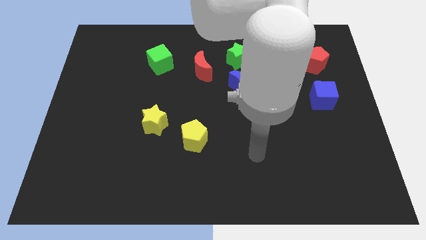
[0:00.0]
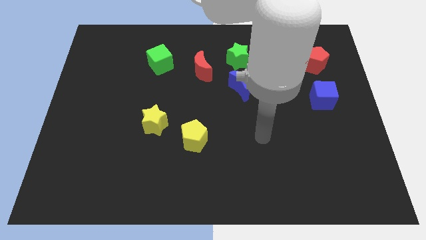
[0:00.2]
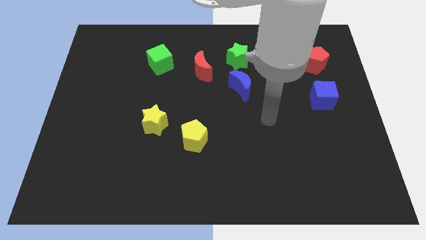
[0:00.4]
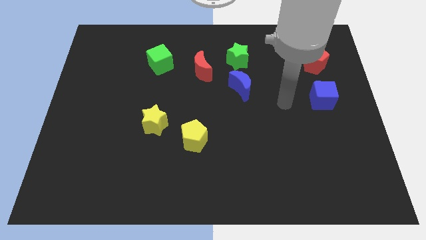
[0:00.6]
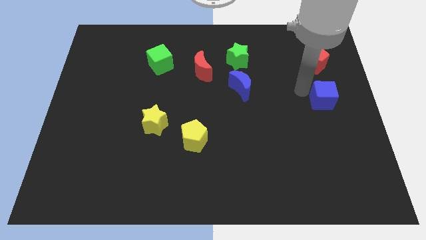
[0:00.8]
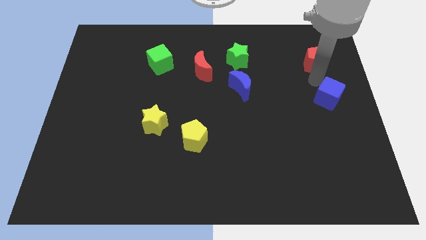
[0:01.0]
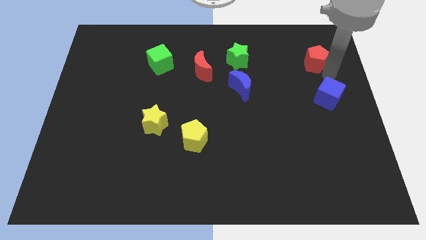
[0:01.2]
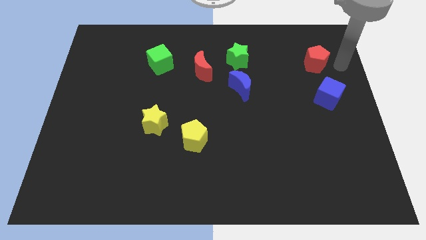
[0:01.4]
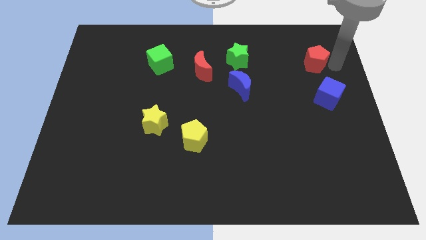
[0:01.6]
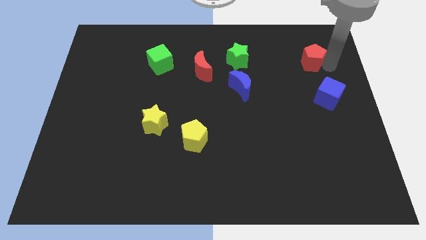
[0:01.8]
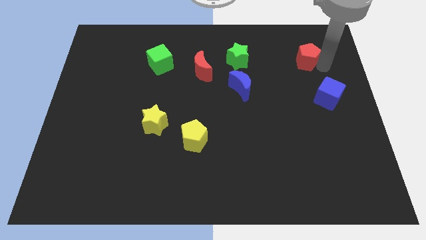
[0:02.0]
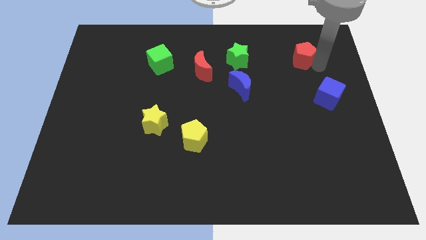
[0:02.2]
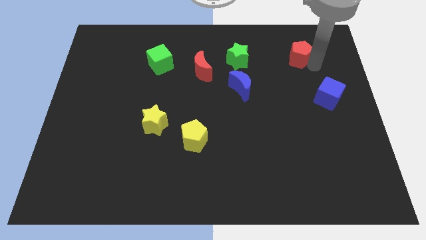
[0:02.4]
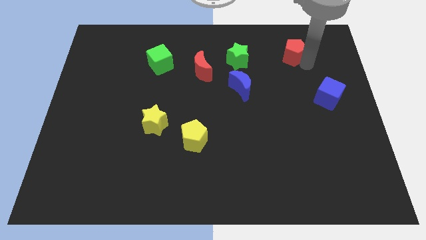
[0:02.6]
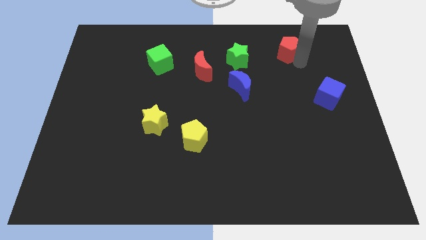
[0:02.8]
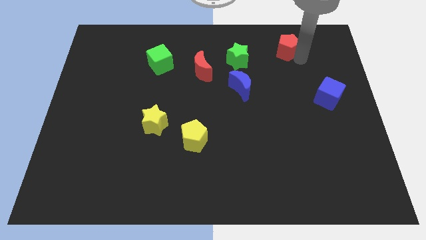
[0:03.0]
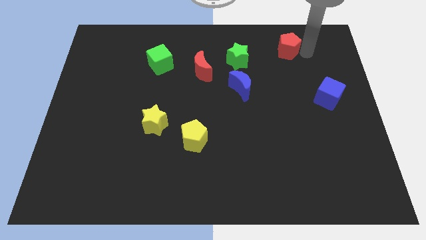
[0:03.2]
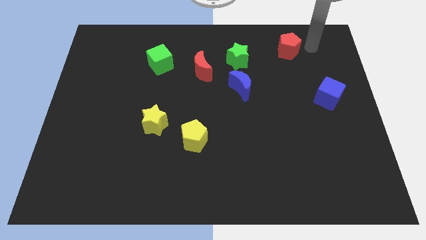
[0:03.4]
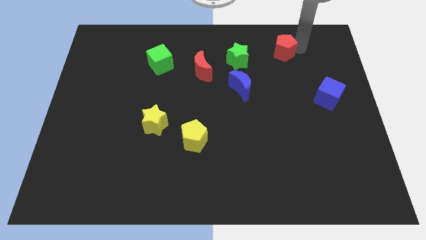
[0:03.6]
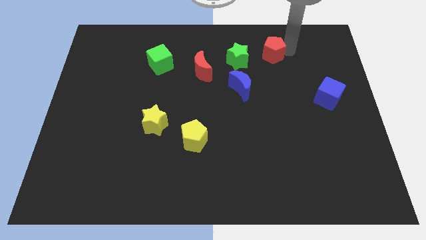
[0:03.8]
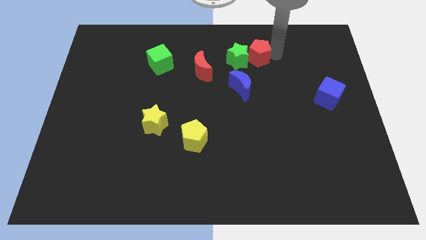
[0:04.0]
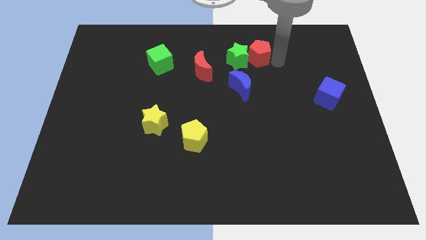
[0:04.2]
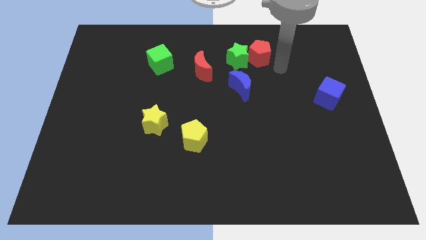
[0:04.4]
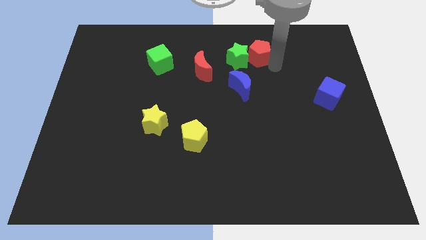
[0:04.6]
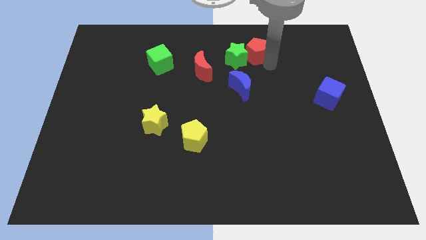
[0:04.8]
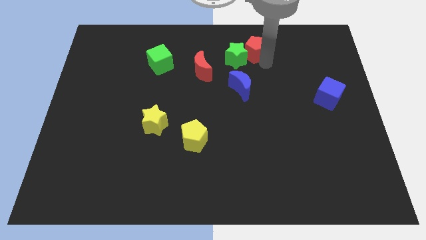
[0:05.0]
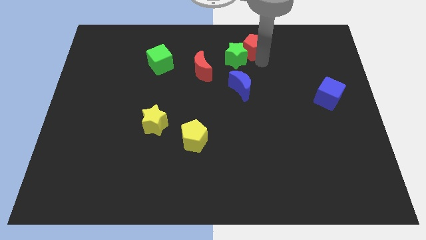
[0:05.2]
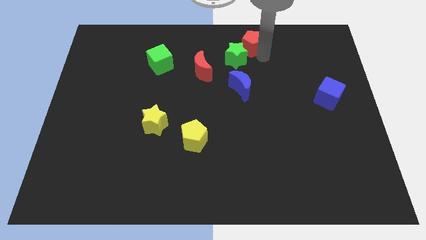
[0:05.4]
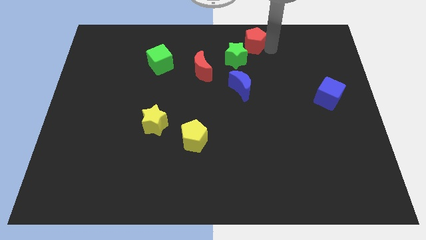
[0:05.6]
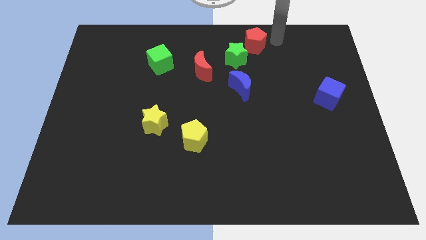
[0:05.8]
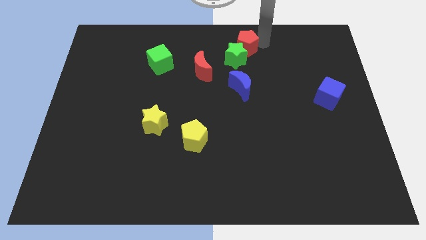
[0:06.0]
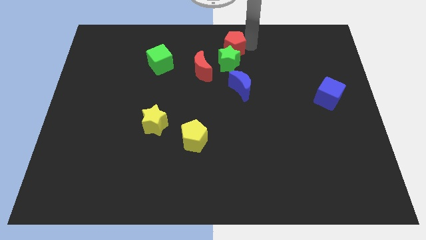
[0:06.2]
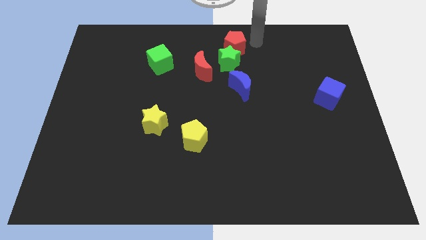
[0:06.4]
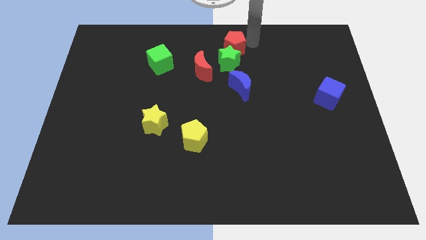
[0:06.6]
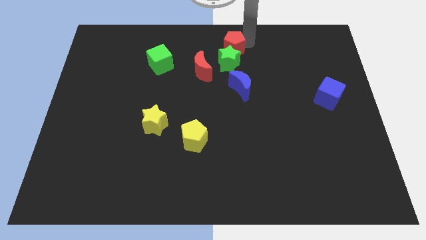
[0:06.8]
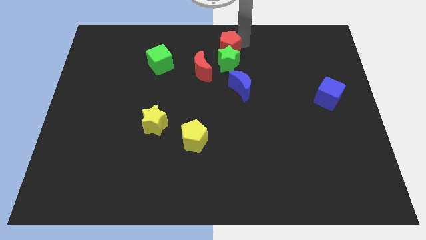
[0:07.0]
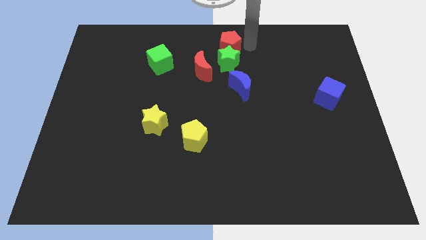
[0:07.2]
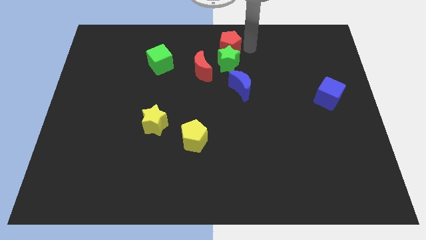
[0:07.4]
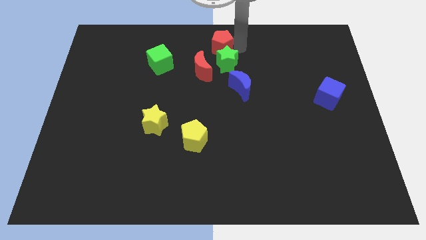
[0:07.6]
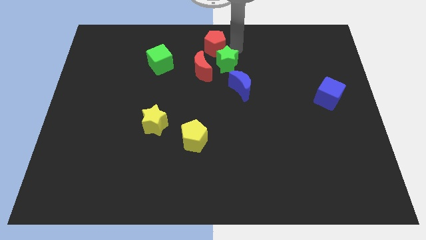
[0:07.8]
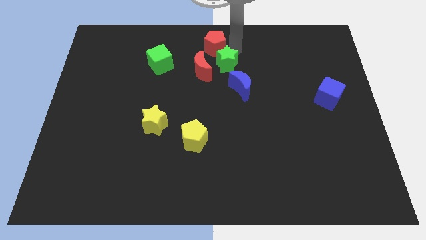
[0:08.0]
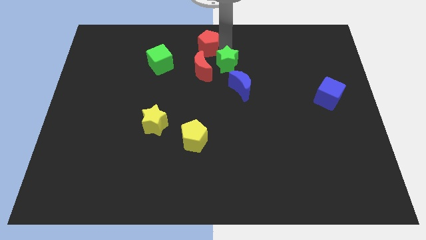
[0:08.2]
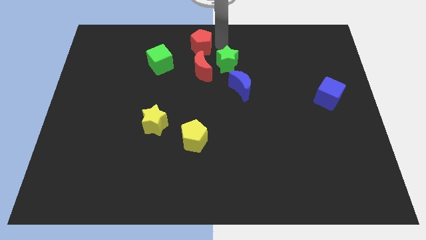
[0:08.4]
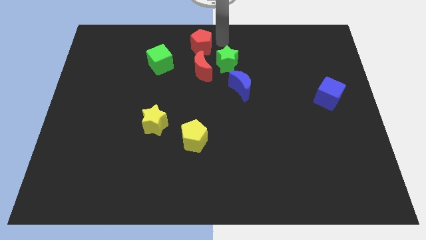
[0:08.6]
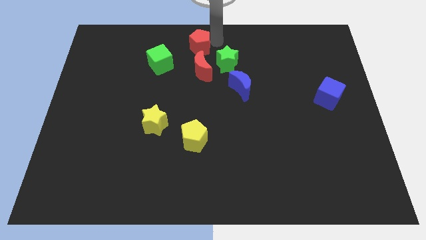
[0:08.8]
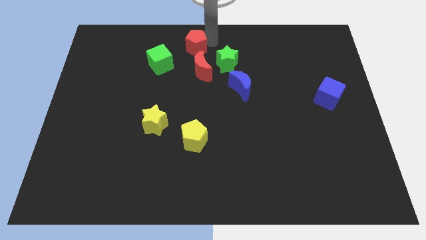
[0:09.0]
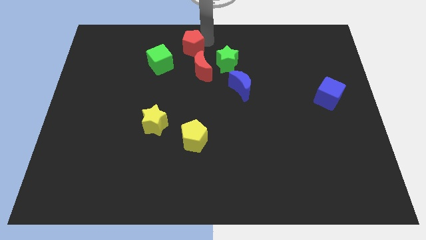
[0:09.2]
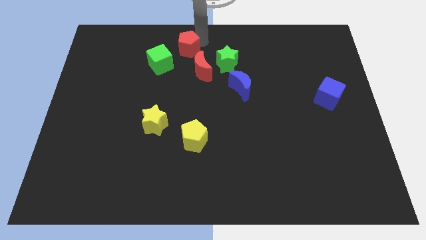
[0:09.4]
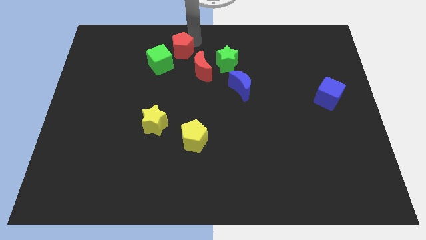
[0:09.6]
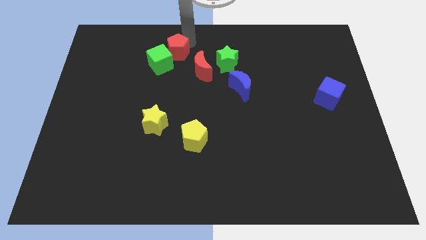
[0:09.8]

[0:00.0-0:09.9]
push the red pentagon close to the green cube

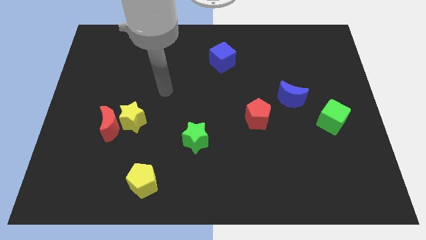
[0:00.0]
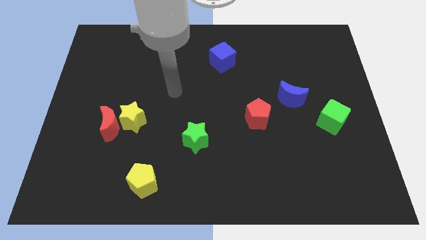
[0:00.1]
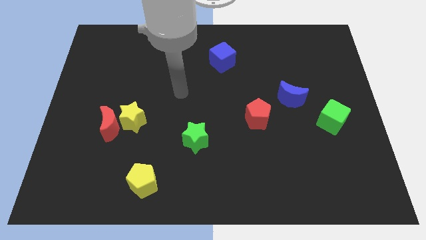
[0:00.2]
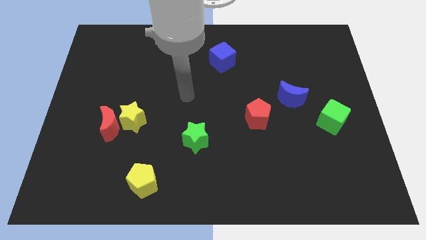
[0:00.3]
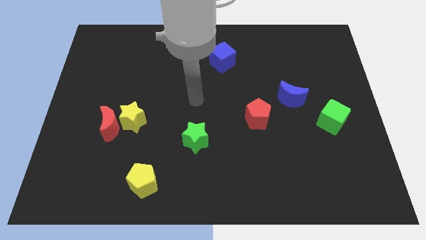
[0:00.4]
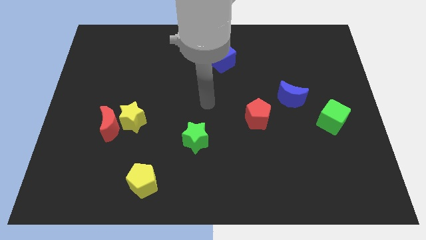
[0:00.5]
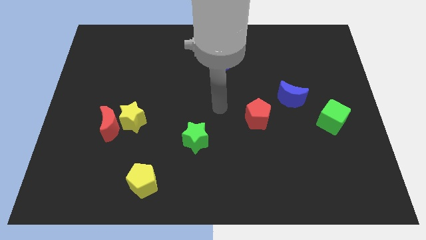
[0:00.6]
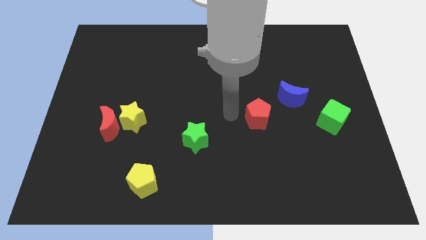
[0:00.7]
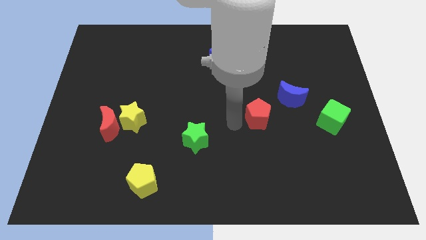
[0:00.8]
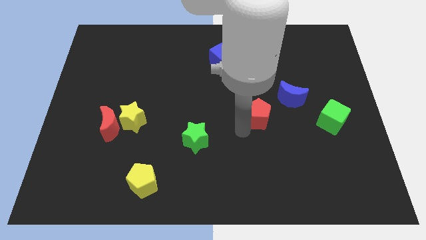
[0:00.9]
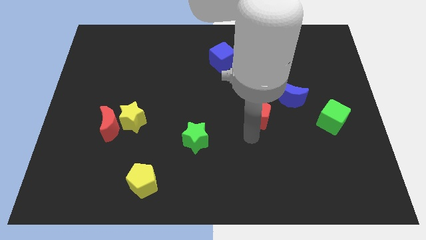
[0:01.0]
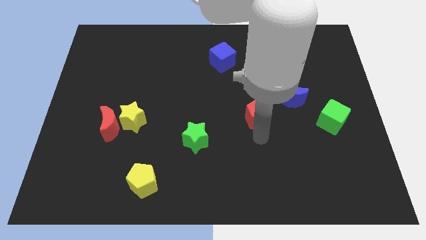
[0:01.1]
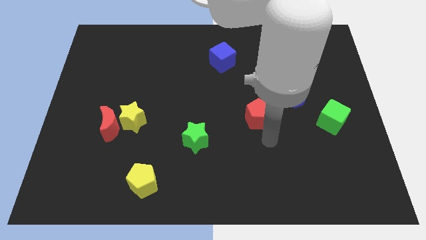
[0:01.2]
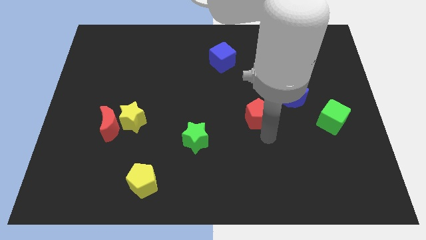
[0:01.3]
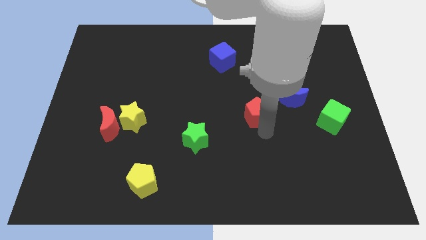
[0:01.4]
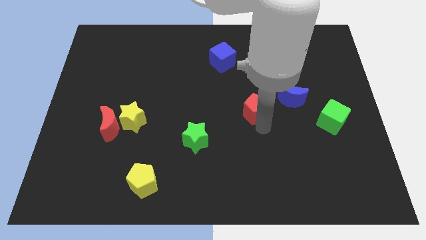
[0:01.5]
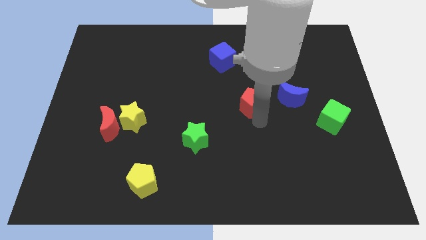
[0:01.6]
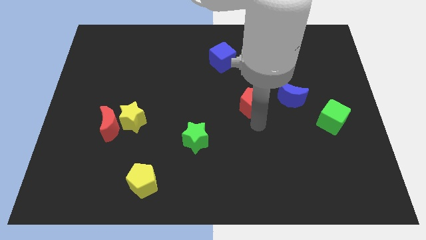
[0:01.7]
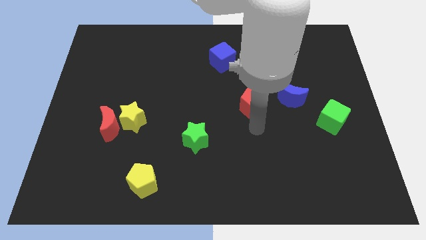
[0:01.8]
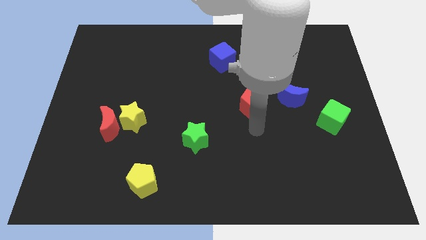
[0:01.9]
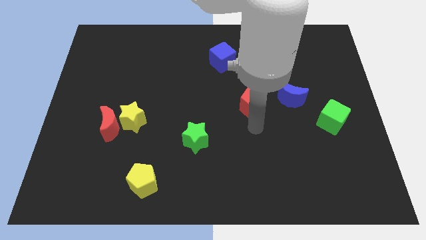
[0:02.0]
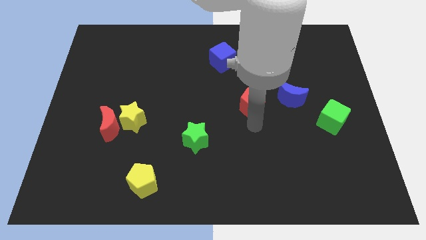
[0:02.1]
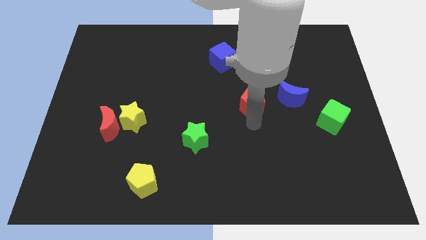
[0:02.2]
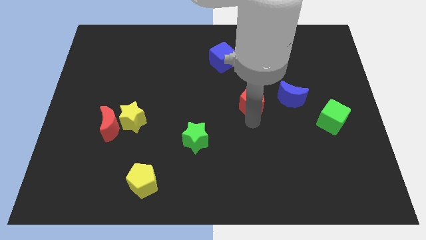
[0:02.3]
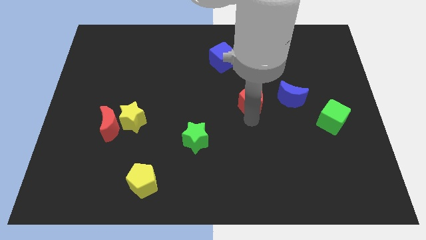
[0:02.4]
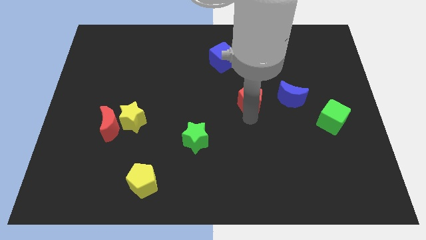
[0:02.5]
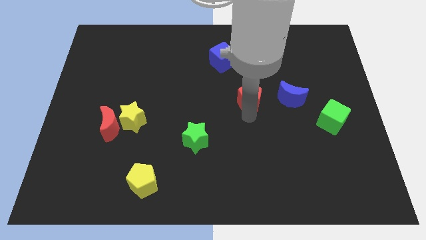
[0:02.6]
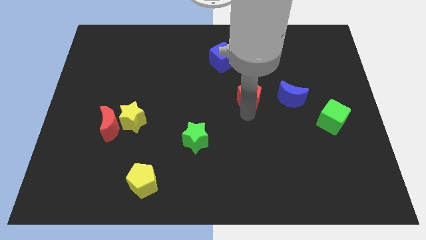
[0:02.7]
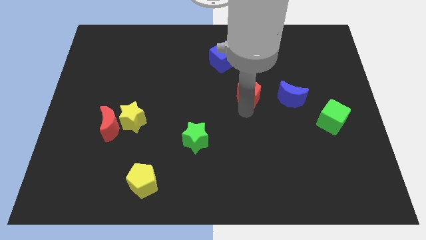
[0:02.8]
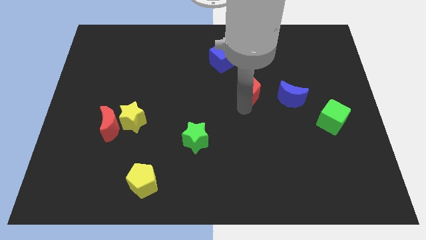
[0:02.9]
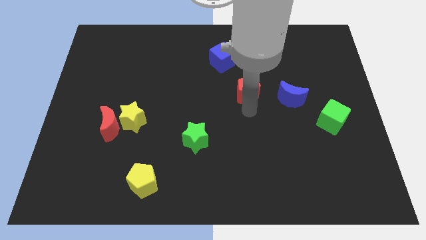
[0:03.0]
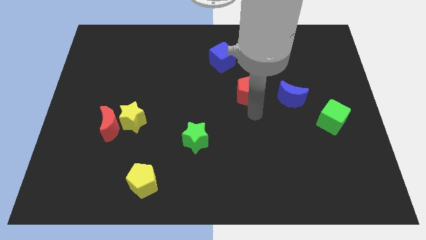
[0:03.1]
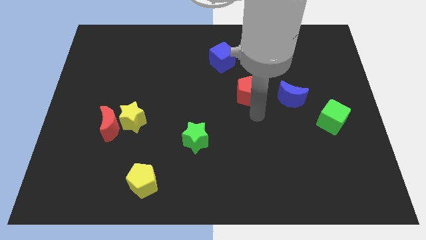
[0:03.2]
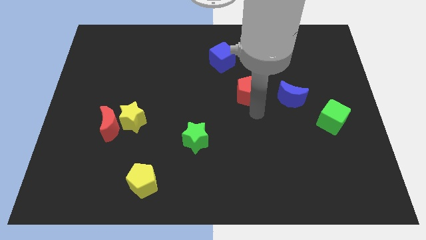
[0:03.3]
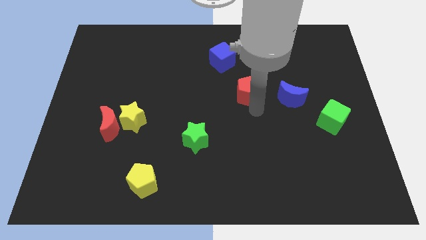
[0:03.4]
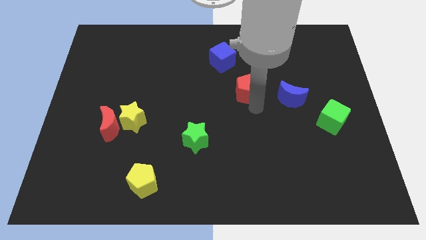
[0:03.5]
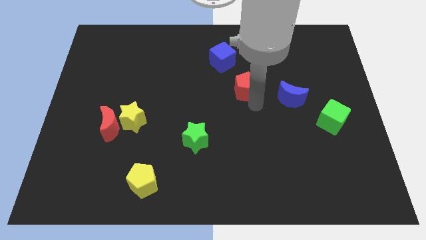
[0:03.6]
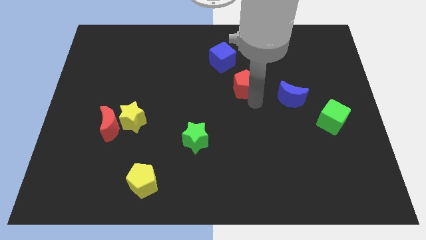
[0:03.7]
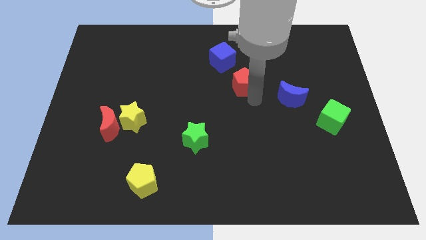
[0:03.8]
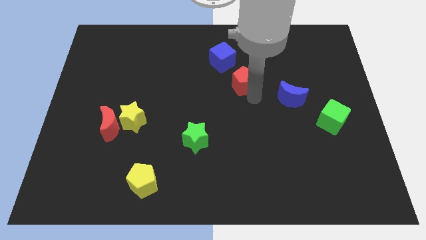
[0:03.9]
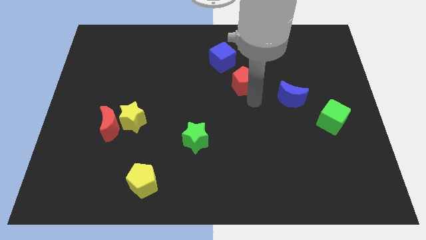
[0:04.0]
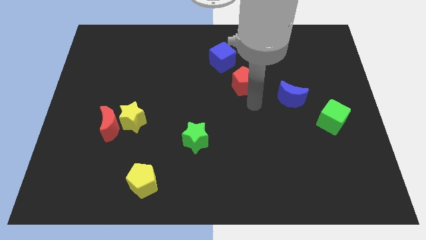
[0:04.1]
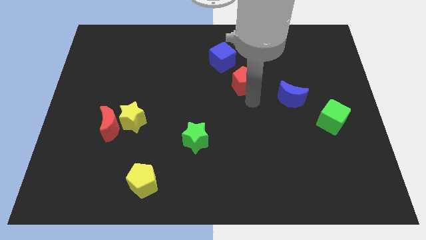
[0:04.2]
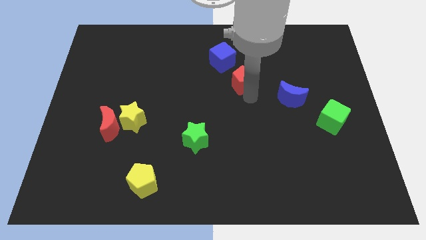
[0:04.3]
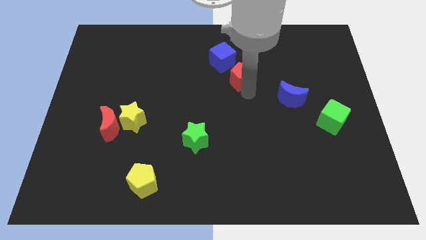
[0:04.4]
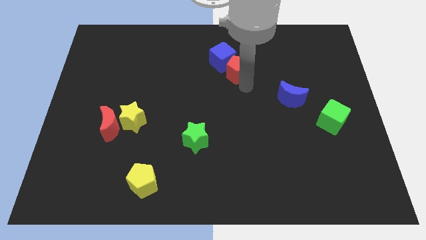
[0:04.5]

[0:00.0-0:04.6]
slide the red pentagon towards the blue cube
